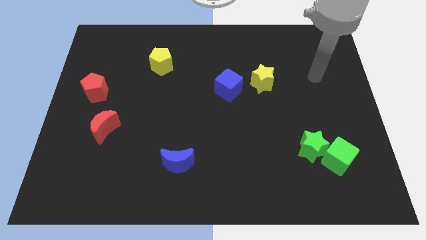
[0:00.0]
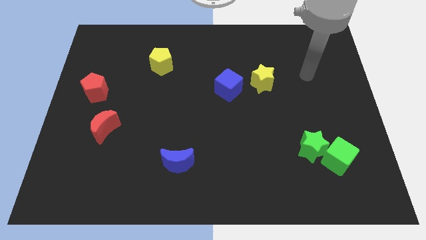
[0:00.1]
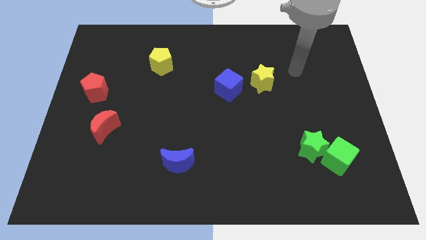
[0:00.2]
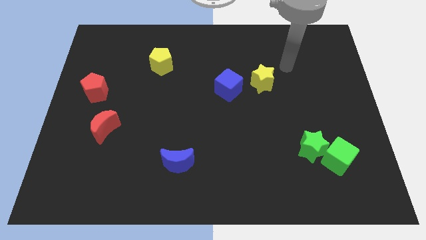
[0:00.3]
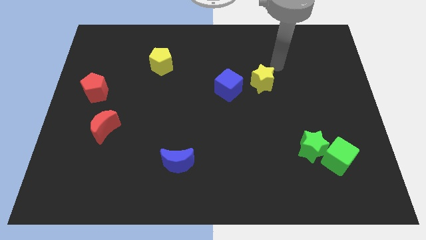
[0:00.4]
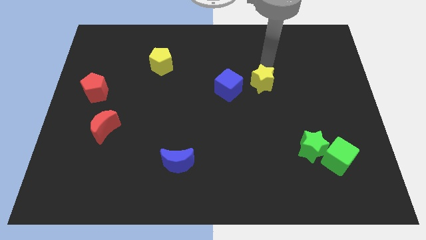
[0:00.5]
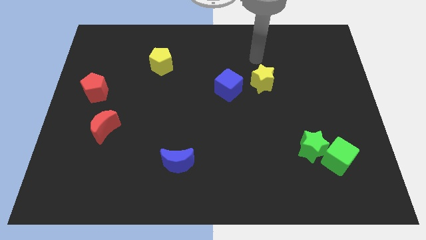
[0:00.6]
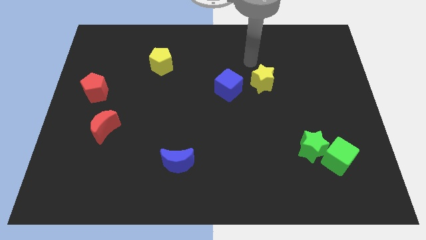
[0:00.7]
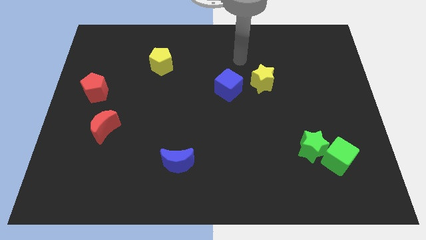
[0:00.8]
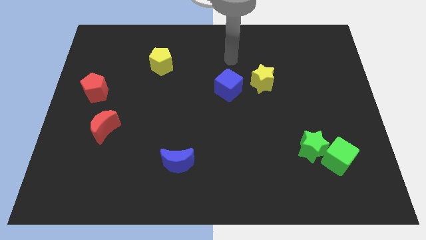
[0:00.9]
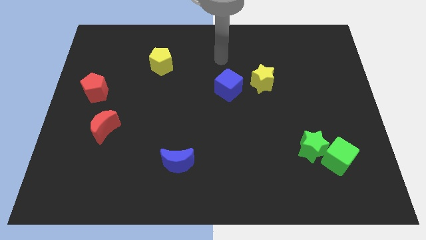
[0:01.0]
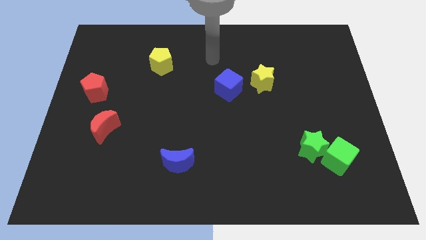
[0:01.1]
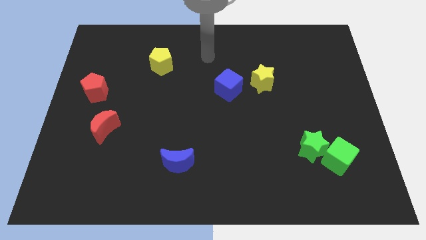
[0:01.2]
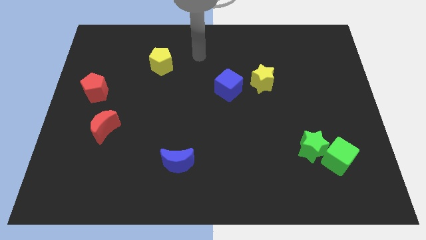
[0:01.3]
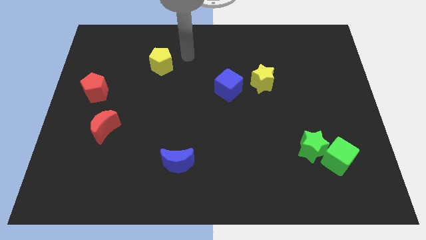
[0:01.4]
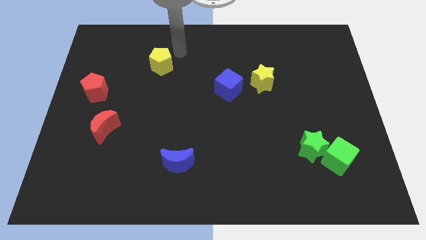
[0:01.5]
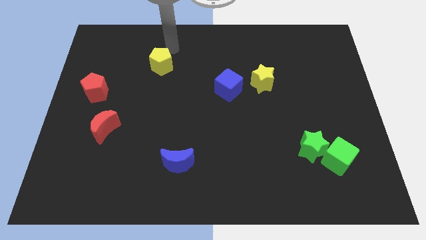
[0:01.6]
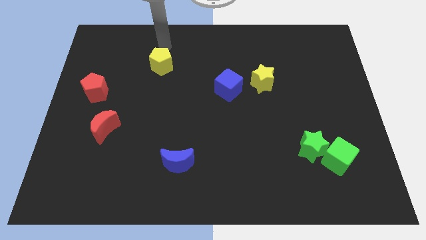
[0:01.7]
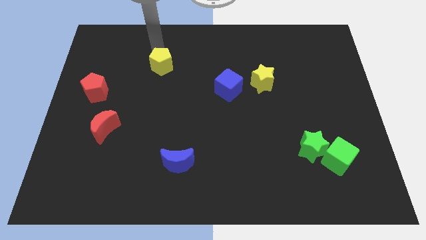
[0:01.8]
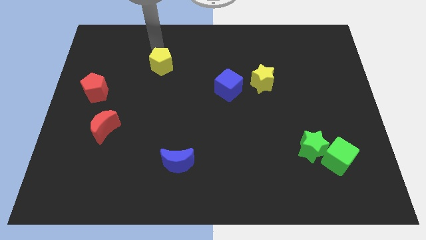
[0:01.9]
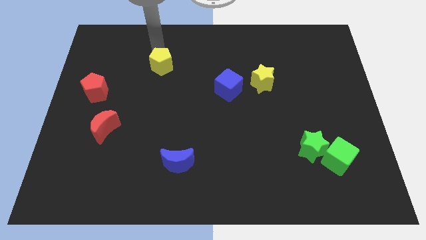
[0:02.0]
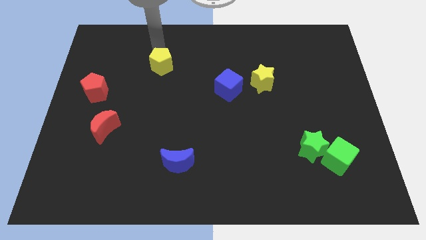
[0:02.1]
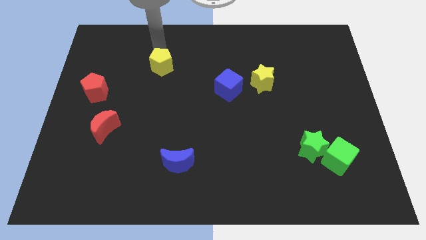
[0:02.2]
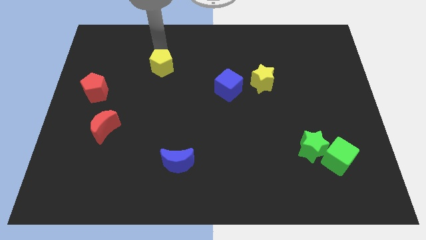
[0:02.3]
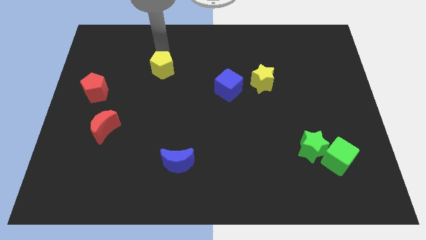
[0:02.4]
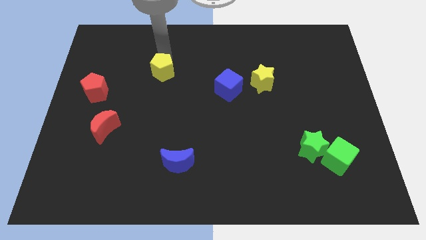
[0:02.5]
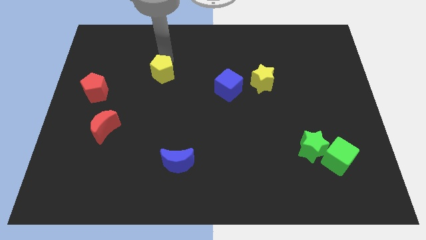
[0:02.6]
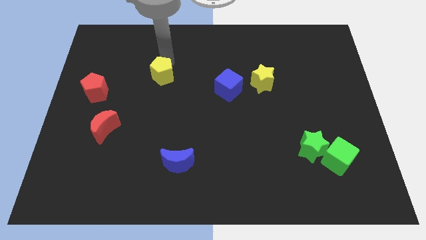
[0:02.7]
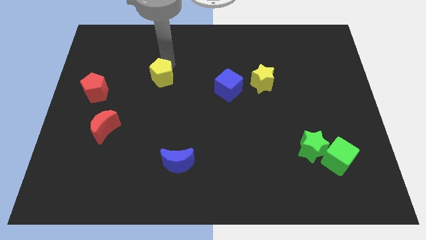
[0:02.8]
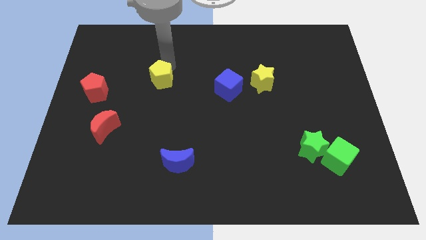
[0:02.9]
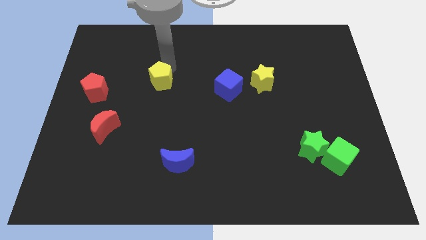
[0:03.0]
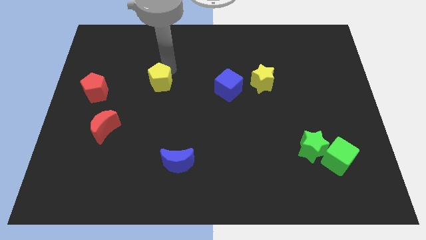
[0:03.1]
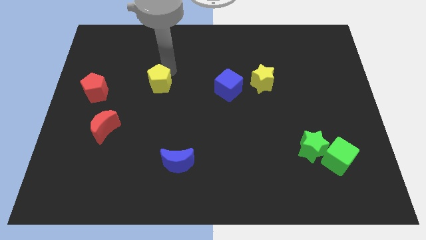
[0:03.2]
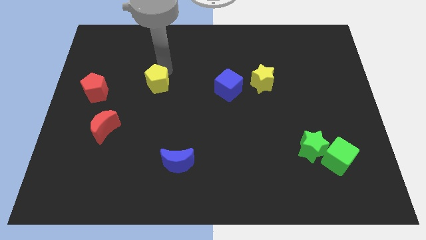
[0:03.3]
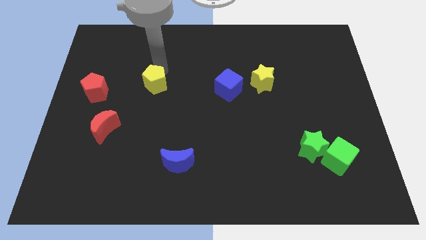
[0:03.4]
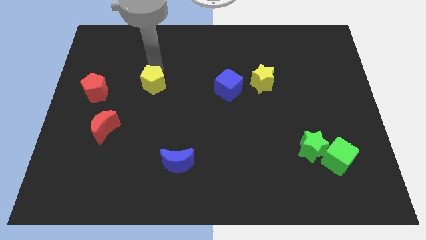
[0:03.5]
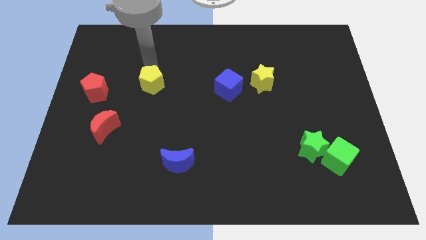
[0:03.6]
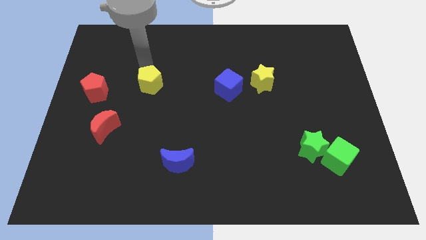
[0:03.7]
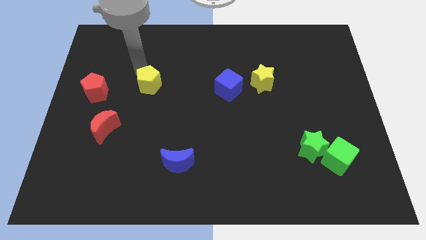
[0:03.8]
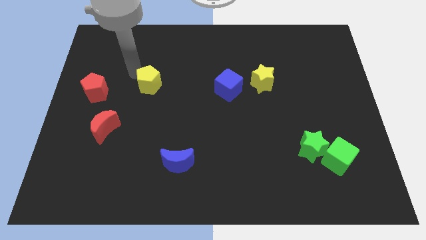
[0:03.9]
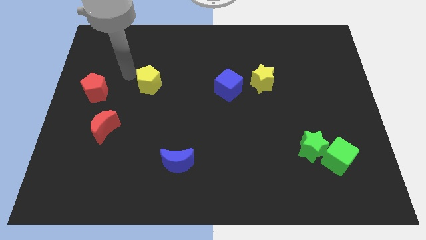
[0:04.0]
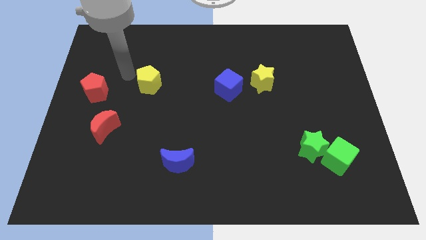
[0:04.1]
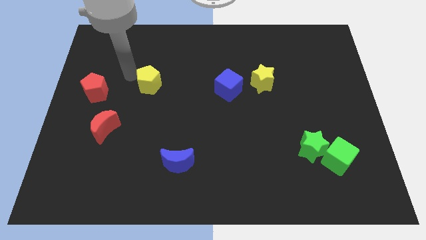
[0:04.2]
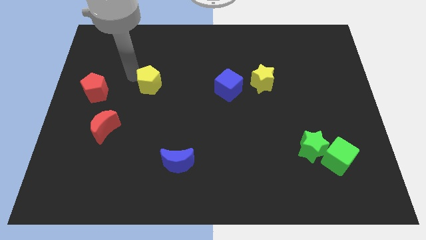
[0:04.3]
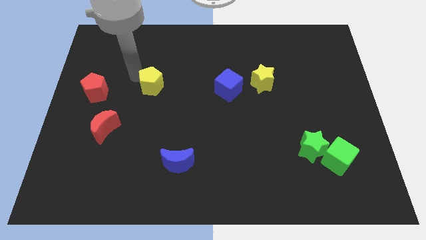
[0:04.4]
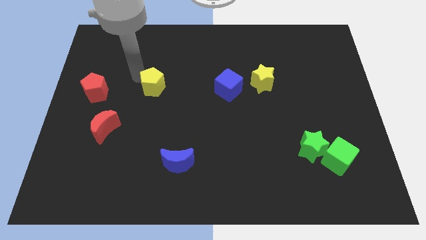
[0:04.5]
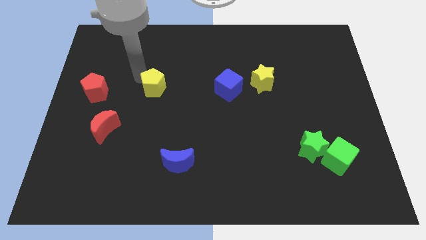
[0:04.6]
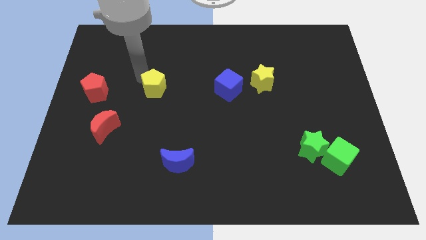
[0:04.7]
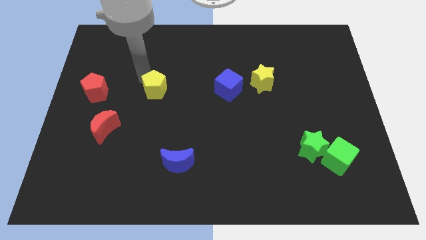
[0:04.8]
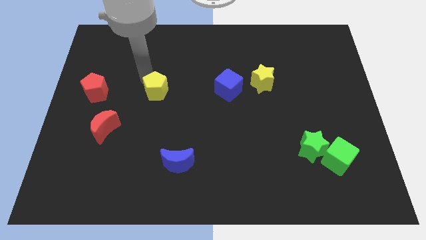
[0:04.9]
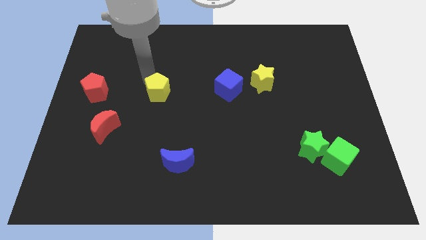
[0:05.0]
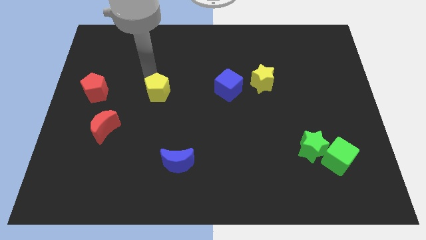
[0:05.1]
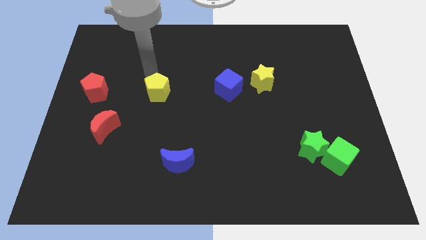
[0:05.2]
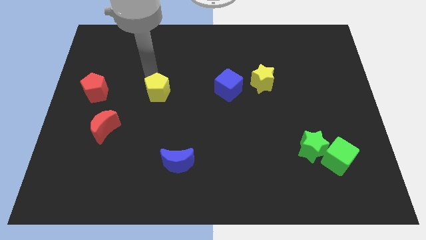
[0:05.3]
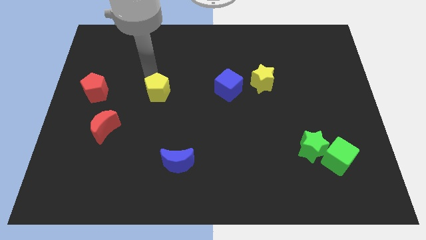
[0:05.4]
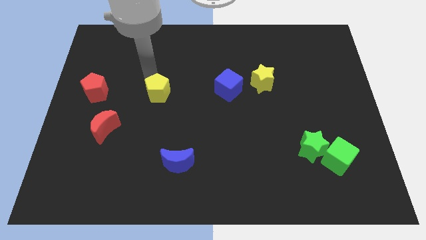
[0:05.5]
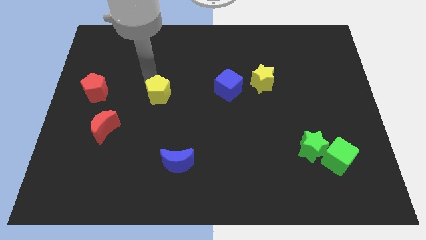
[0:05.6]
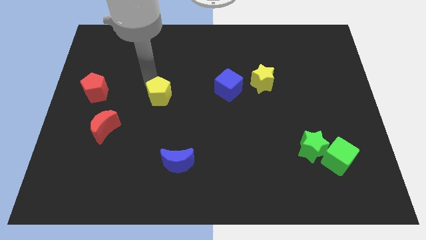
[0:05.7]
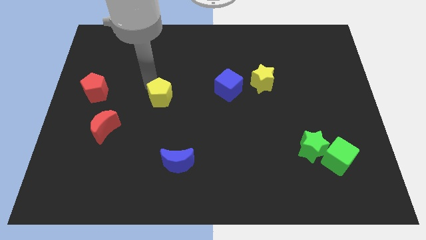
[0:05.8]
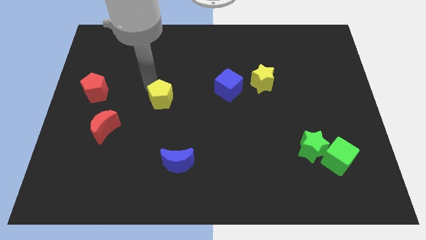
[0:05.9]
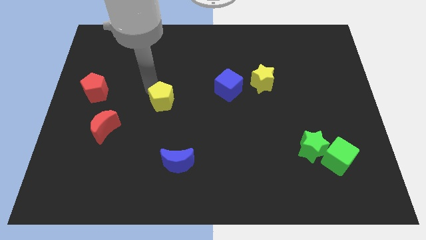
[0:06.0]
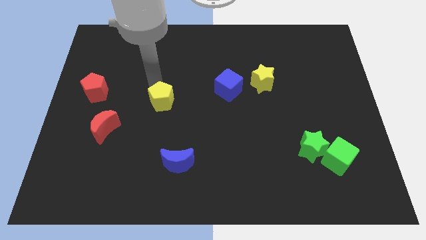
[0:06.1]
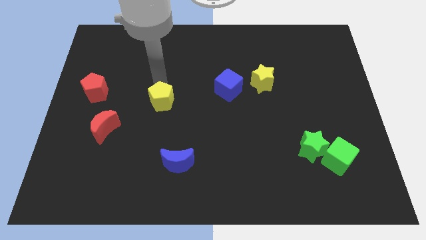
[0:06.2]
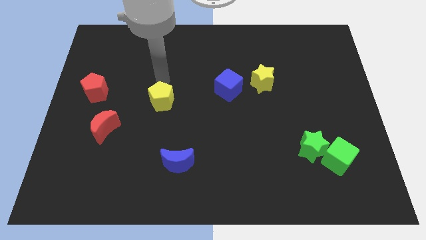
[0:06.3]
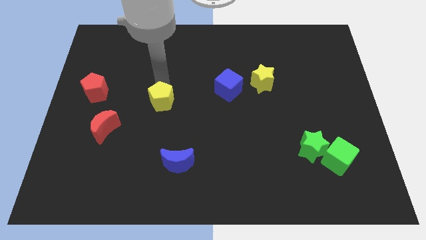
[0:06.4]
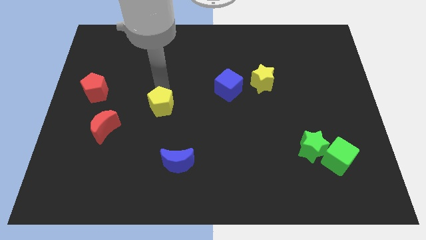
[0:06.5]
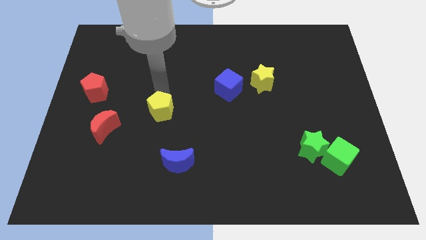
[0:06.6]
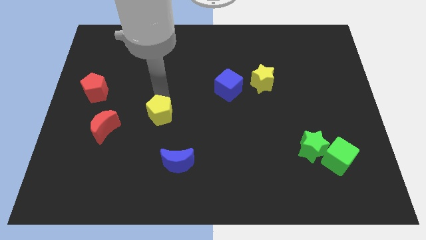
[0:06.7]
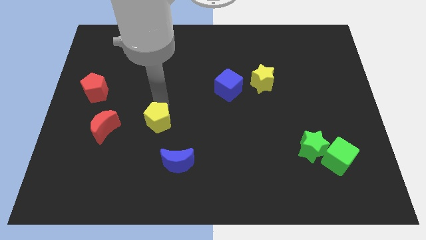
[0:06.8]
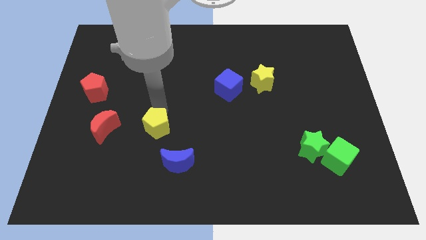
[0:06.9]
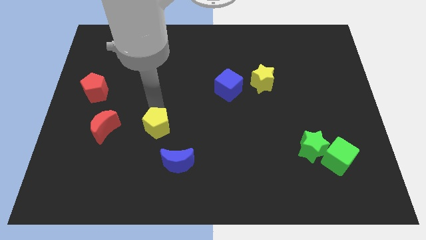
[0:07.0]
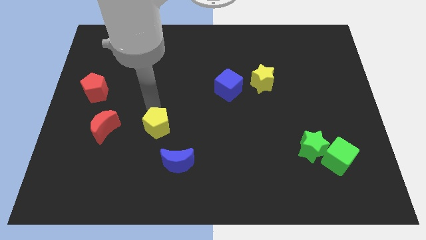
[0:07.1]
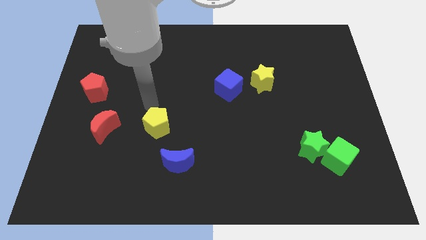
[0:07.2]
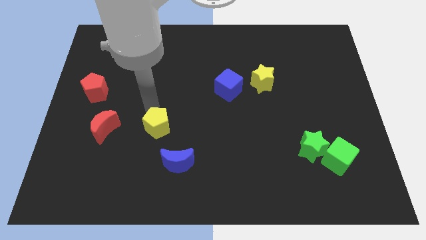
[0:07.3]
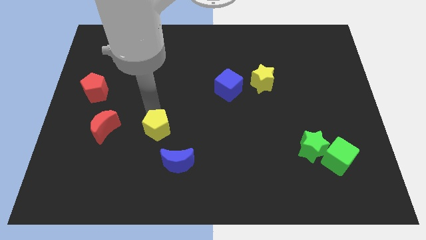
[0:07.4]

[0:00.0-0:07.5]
slide the yellow pentagon downwards

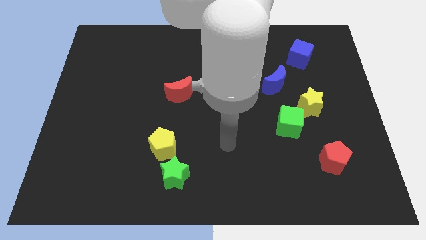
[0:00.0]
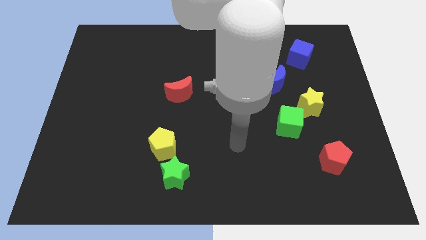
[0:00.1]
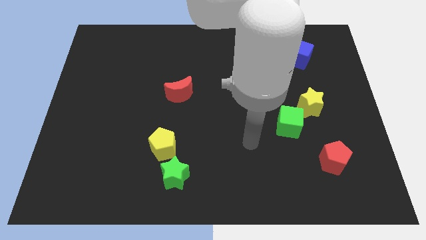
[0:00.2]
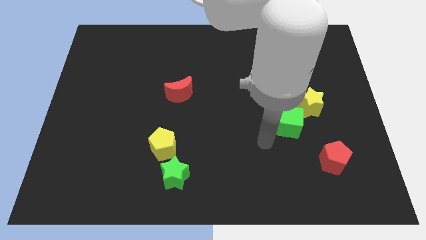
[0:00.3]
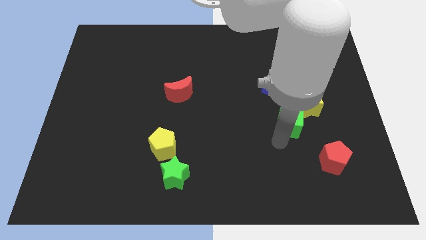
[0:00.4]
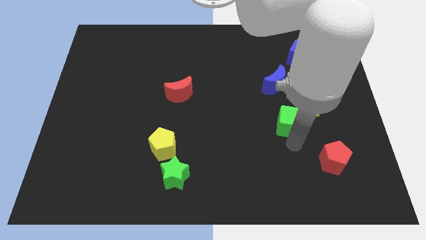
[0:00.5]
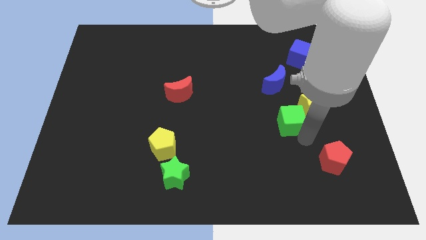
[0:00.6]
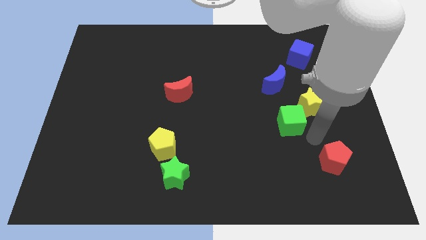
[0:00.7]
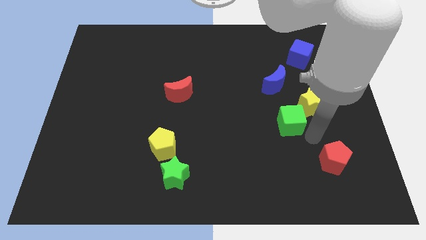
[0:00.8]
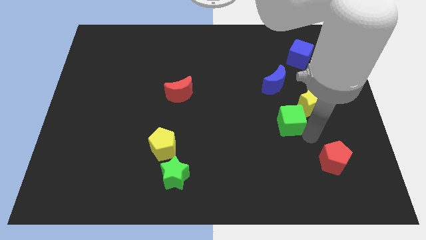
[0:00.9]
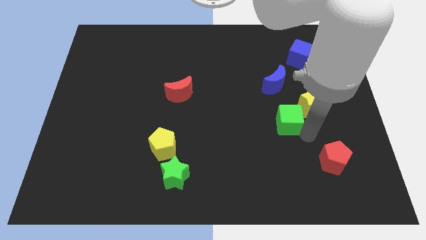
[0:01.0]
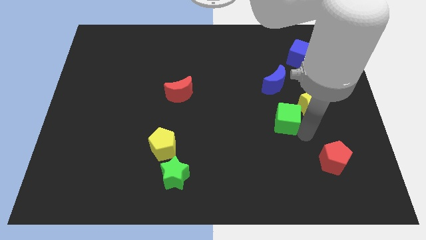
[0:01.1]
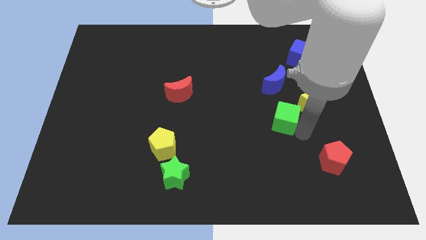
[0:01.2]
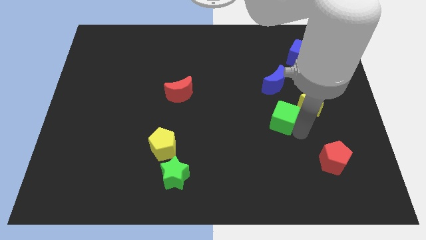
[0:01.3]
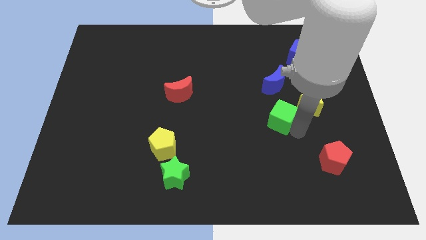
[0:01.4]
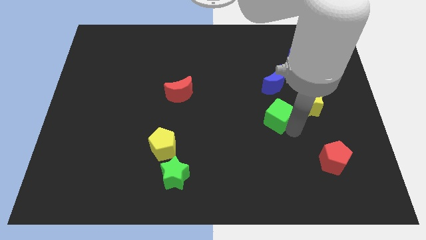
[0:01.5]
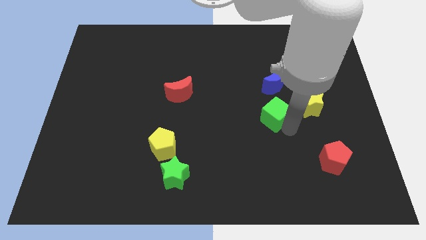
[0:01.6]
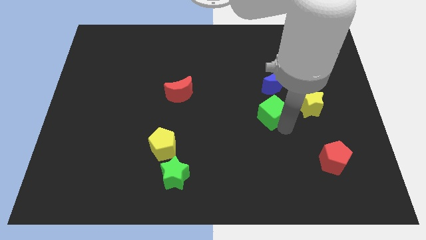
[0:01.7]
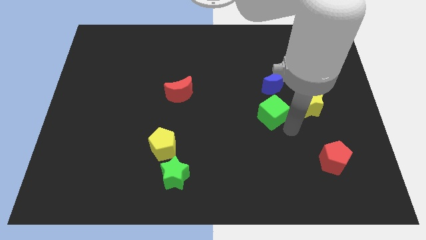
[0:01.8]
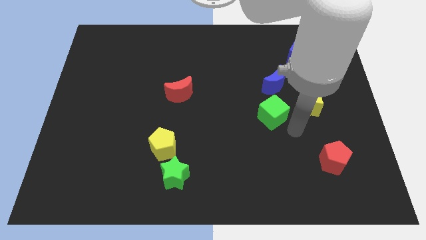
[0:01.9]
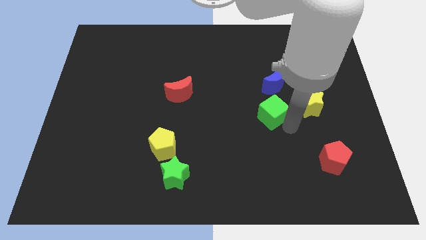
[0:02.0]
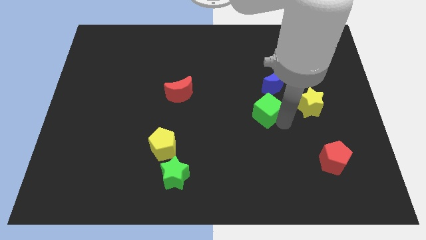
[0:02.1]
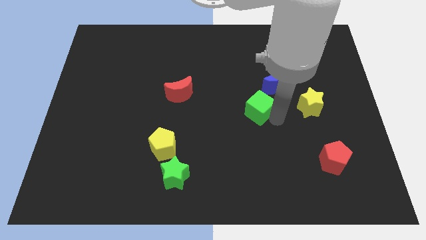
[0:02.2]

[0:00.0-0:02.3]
slightly slide the green cube upwards and left
